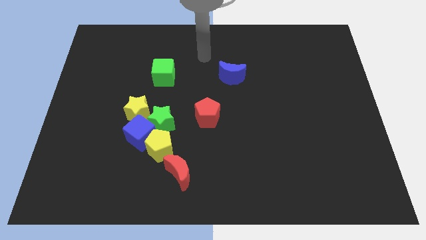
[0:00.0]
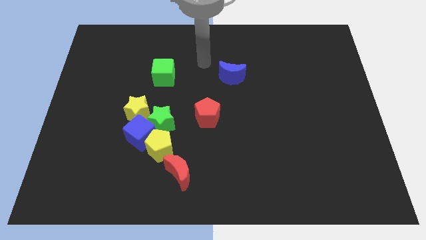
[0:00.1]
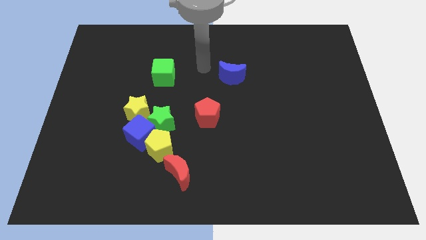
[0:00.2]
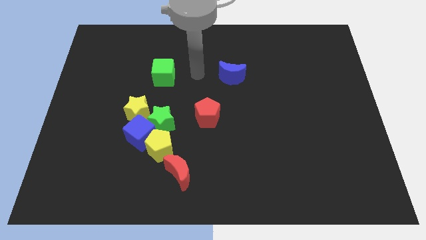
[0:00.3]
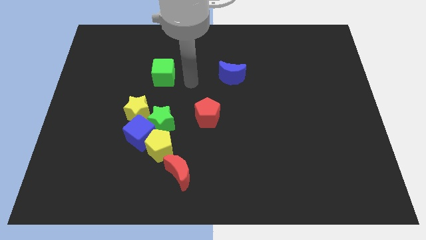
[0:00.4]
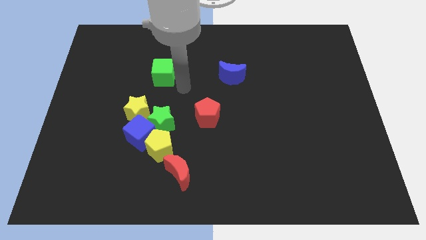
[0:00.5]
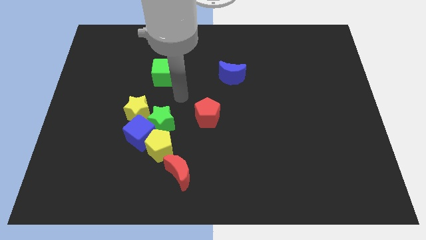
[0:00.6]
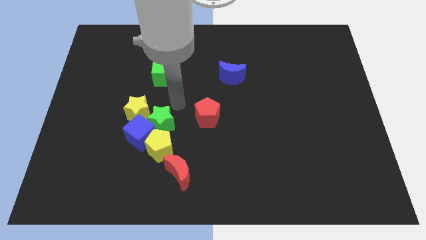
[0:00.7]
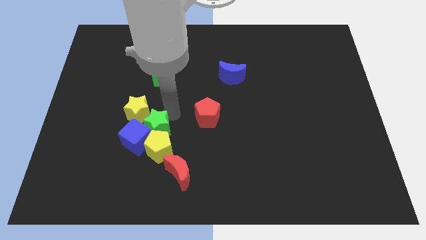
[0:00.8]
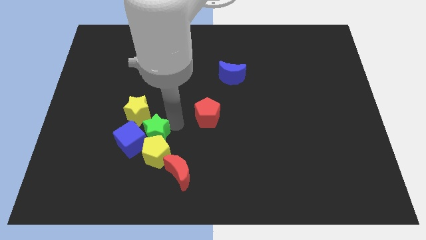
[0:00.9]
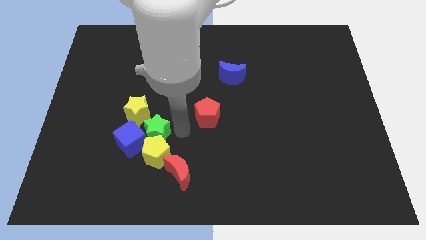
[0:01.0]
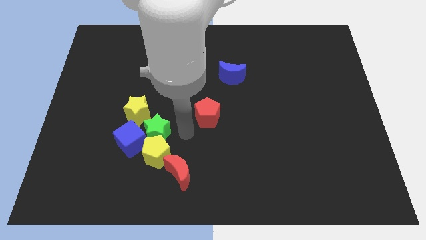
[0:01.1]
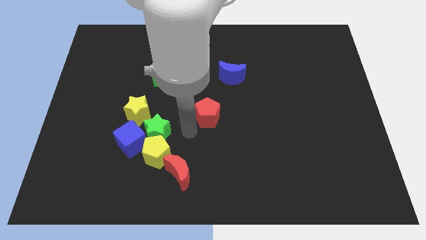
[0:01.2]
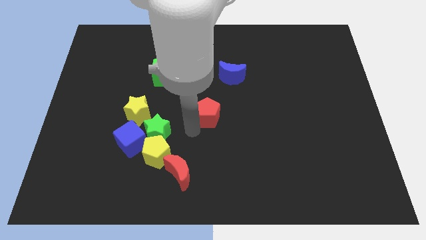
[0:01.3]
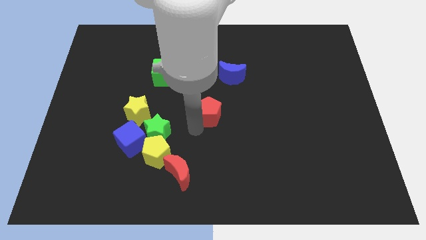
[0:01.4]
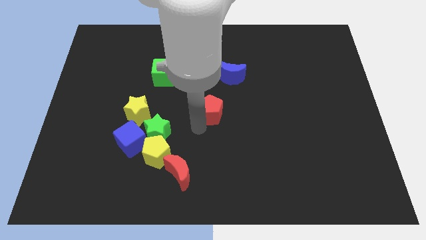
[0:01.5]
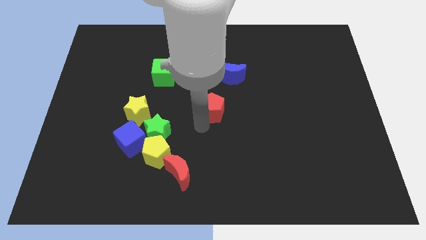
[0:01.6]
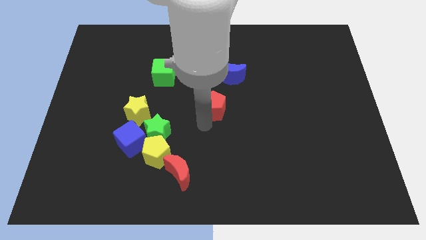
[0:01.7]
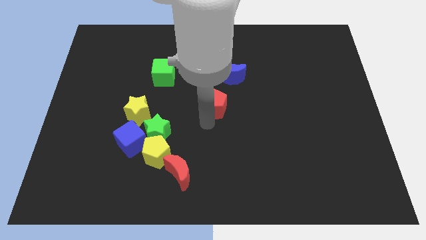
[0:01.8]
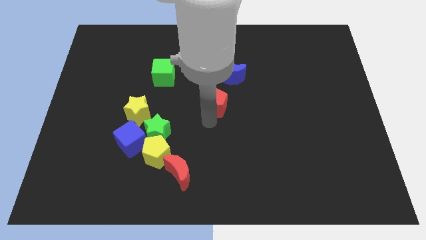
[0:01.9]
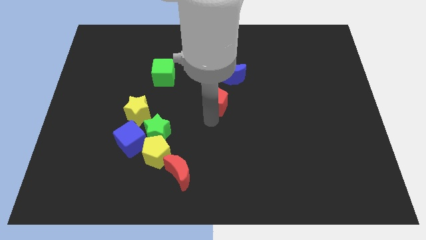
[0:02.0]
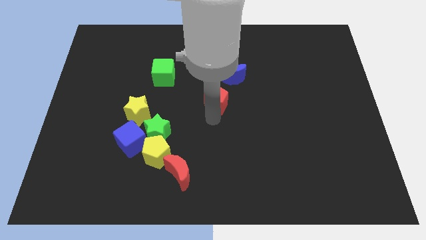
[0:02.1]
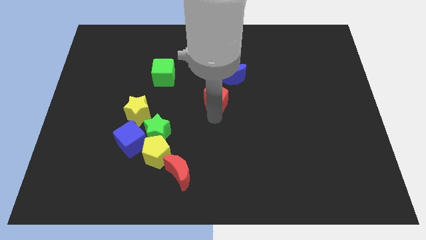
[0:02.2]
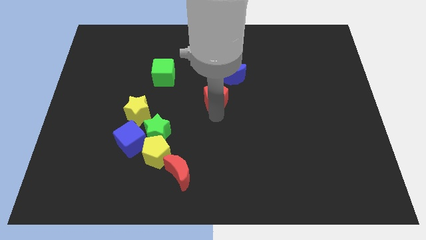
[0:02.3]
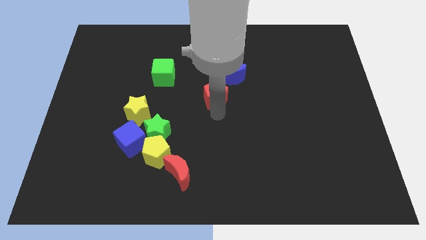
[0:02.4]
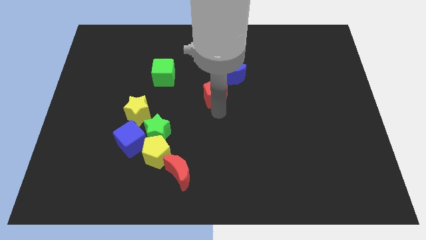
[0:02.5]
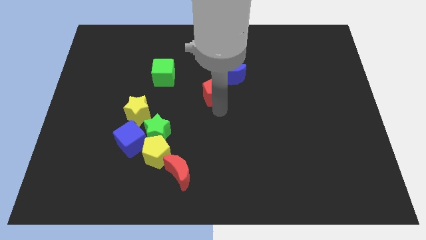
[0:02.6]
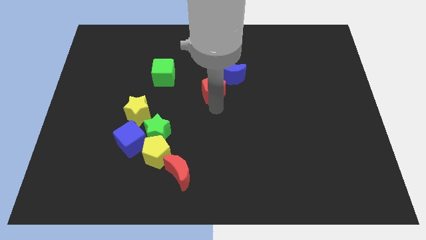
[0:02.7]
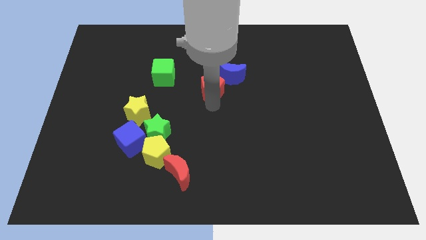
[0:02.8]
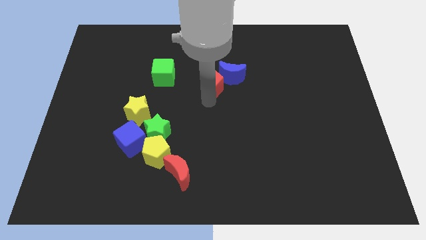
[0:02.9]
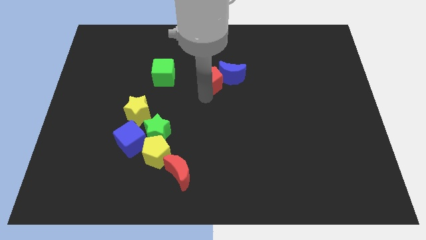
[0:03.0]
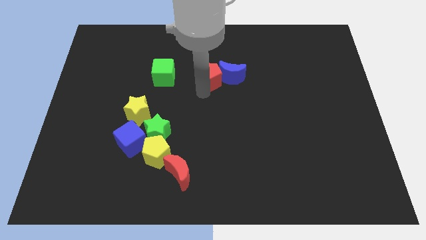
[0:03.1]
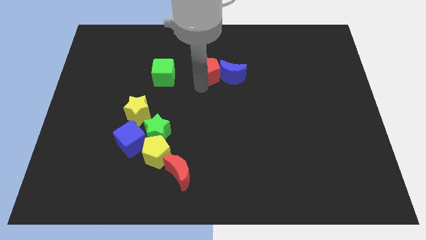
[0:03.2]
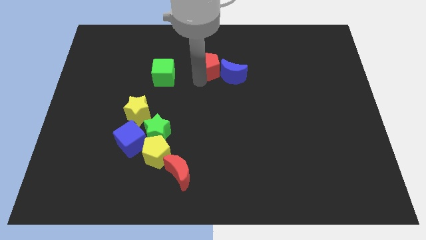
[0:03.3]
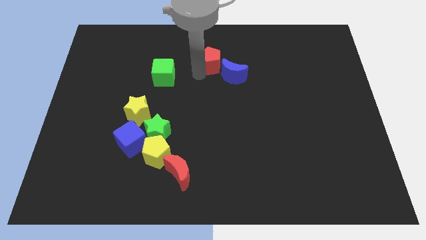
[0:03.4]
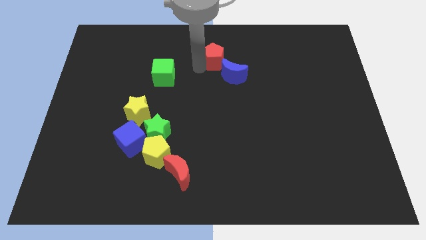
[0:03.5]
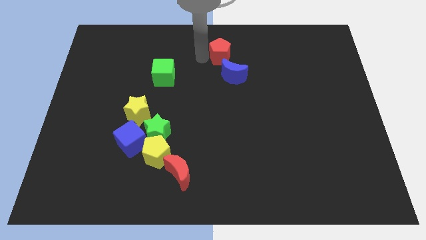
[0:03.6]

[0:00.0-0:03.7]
slightly slide the red pentagon up and then right

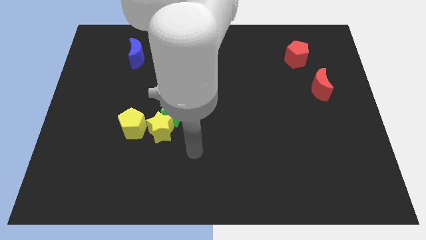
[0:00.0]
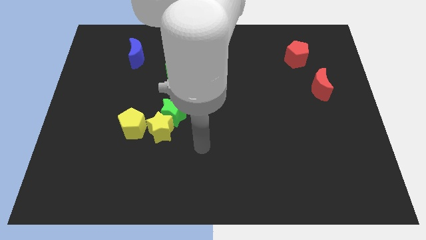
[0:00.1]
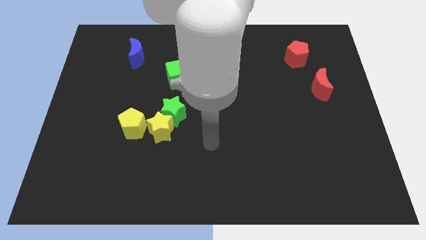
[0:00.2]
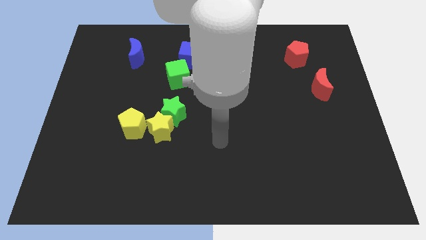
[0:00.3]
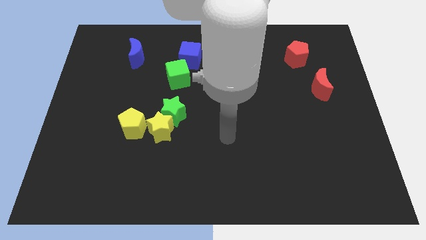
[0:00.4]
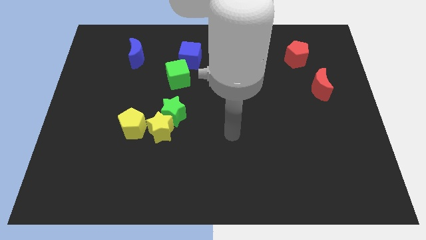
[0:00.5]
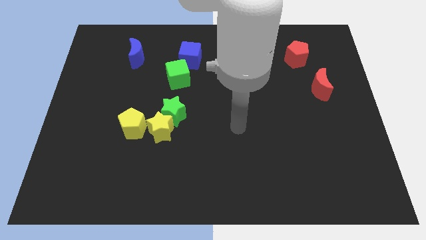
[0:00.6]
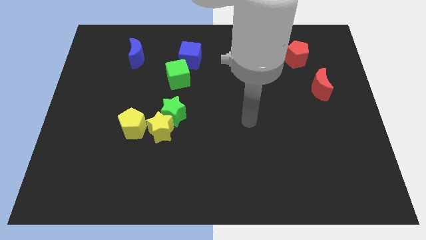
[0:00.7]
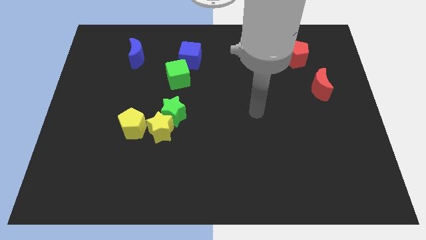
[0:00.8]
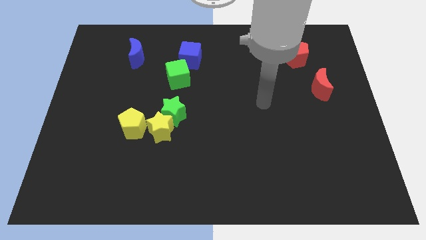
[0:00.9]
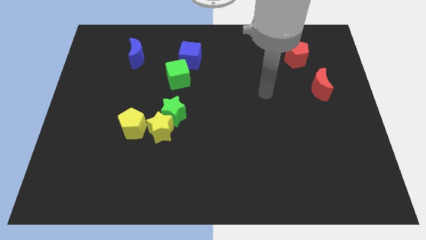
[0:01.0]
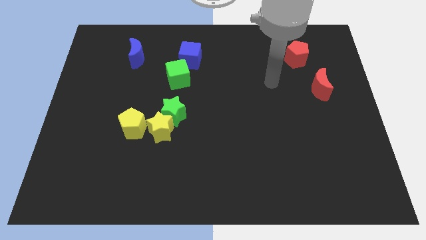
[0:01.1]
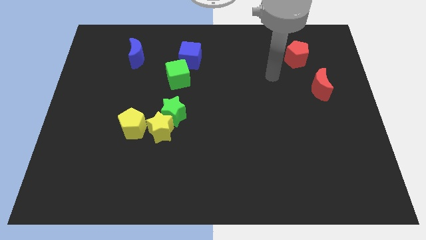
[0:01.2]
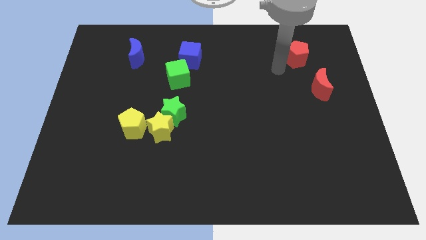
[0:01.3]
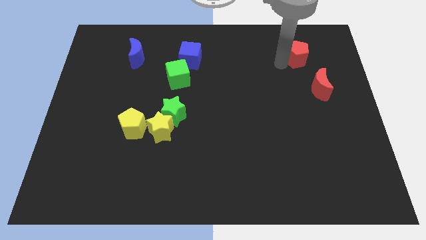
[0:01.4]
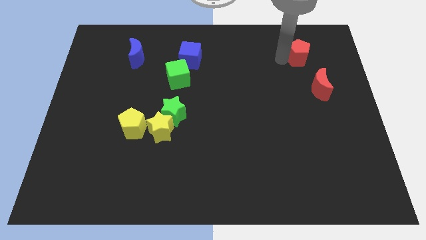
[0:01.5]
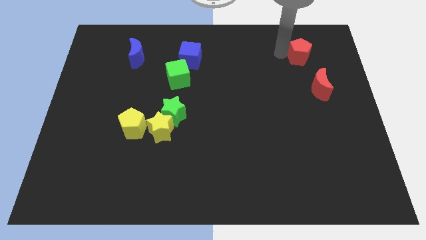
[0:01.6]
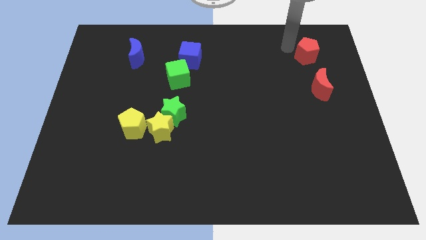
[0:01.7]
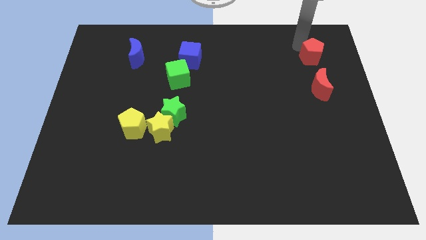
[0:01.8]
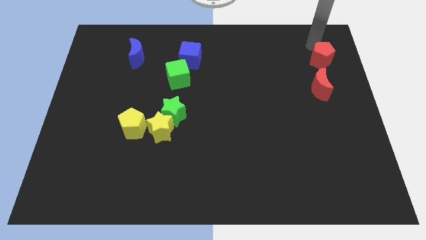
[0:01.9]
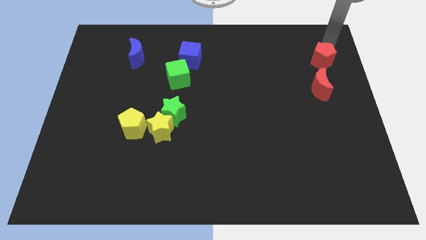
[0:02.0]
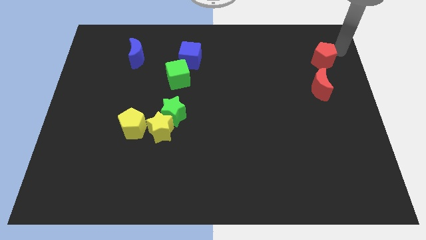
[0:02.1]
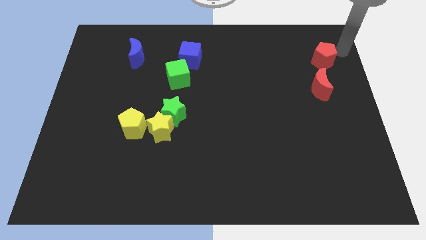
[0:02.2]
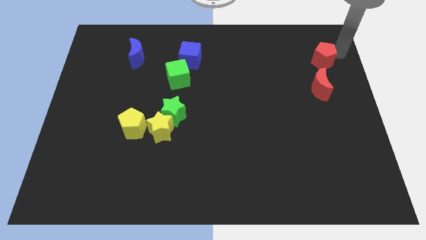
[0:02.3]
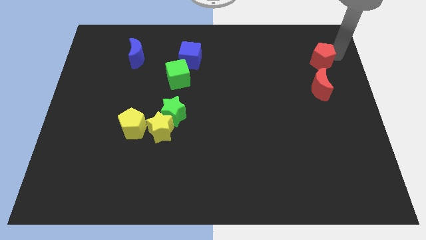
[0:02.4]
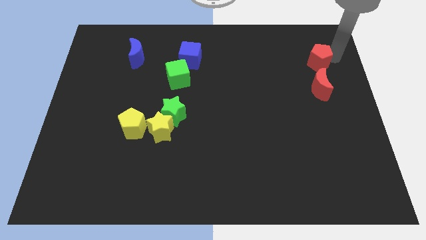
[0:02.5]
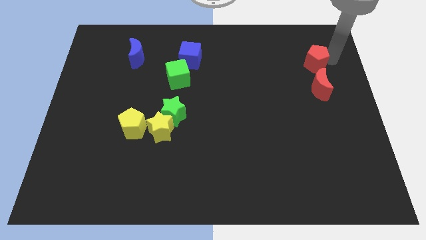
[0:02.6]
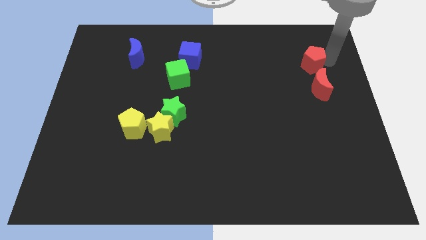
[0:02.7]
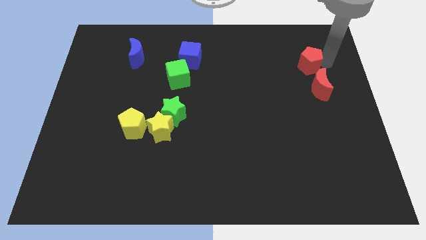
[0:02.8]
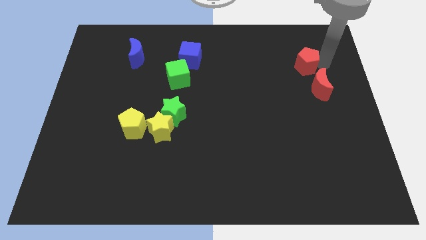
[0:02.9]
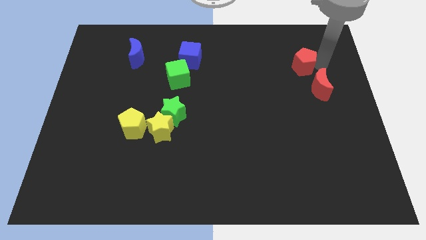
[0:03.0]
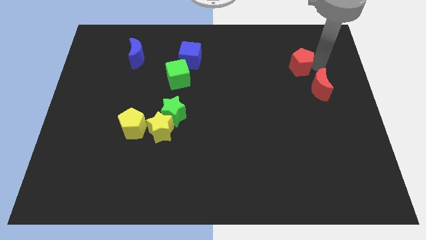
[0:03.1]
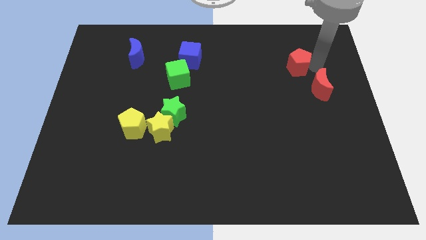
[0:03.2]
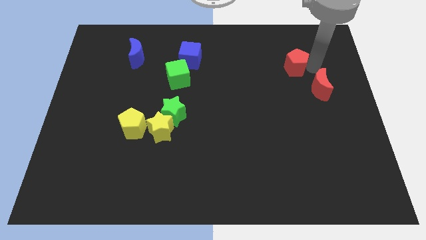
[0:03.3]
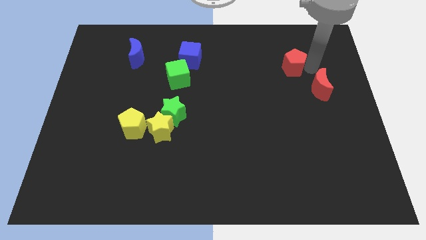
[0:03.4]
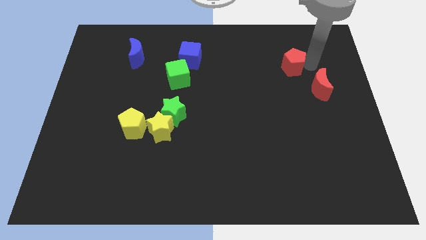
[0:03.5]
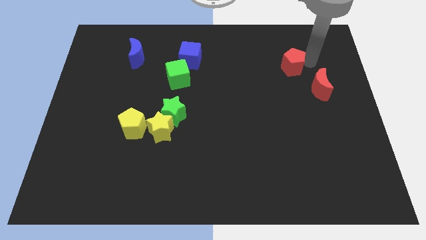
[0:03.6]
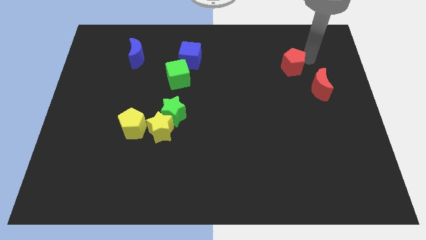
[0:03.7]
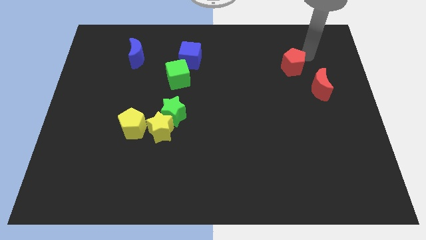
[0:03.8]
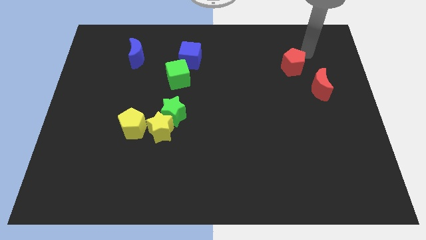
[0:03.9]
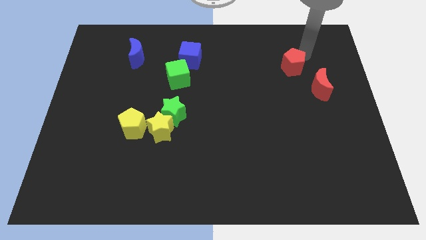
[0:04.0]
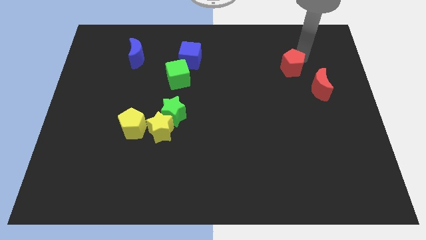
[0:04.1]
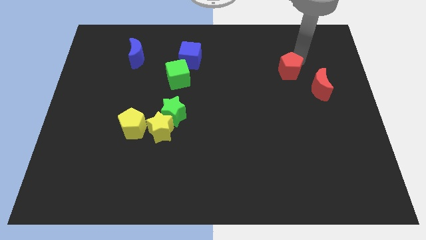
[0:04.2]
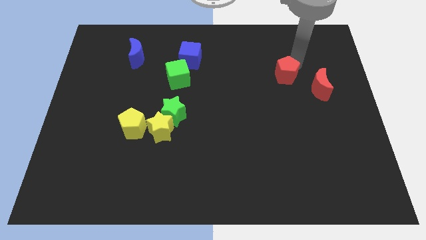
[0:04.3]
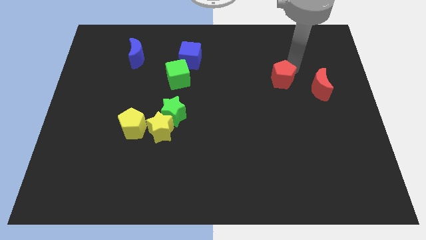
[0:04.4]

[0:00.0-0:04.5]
slightly push the red pentagon diagonally downwards and to the left
